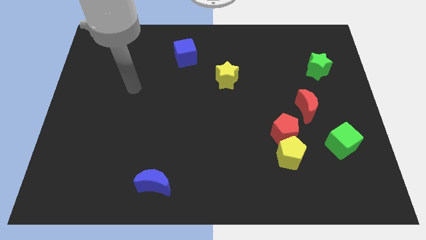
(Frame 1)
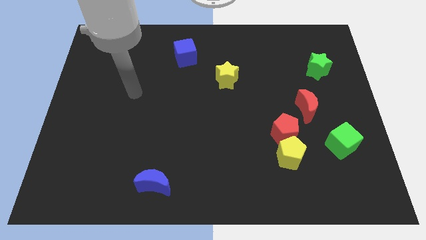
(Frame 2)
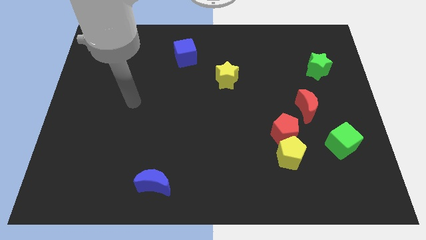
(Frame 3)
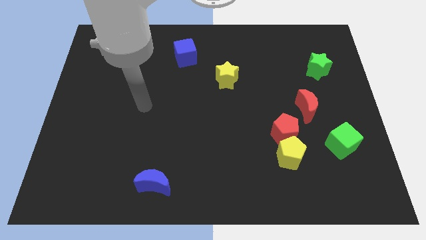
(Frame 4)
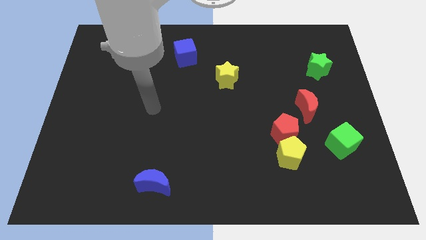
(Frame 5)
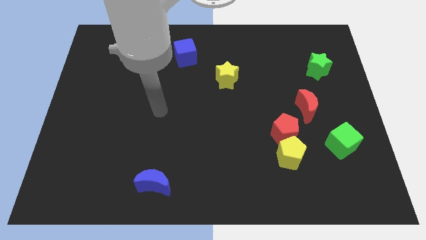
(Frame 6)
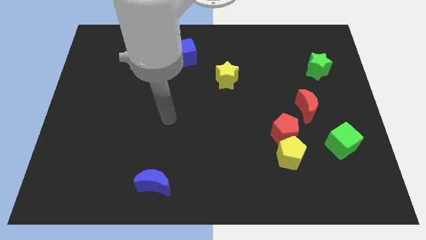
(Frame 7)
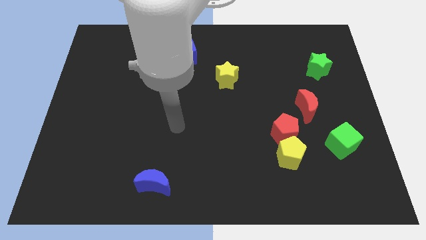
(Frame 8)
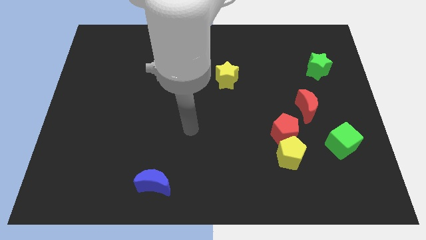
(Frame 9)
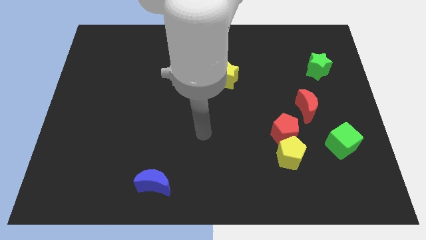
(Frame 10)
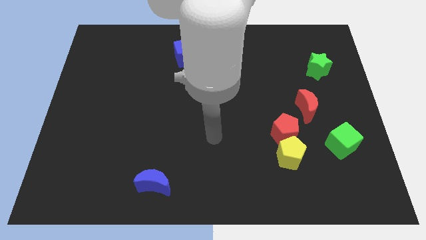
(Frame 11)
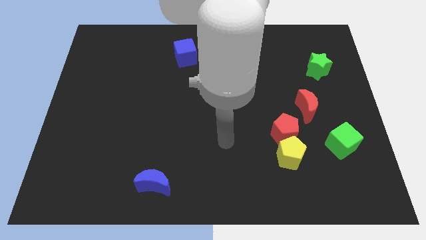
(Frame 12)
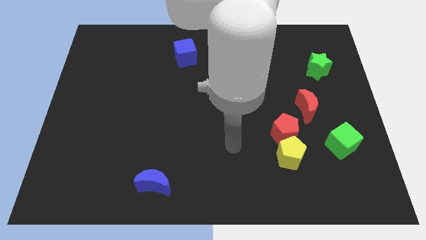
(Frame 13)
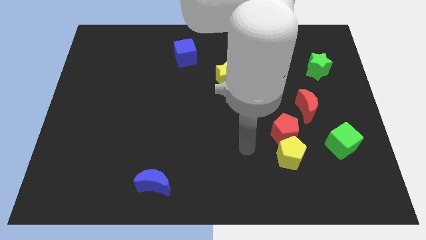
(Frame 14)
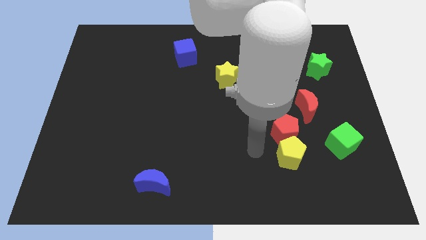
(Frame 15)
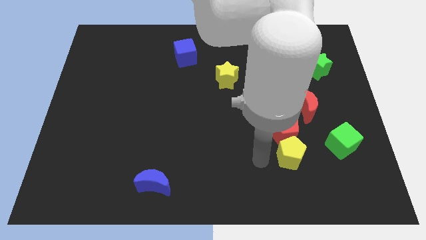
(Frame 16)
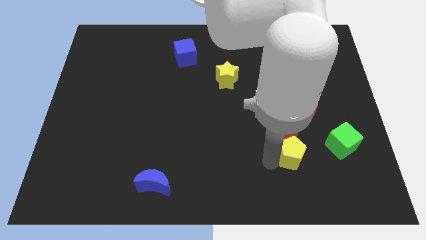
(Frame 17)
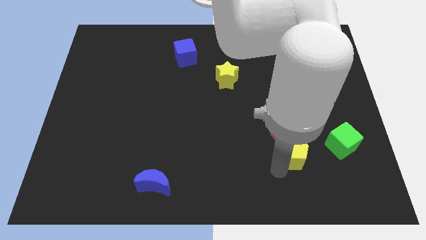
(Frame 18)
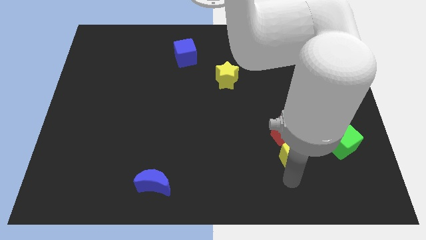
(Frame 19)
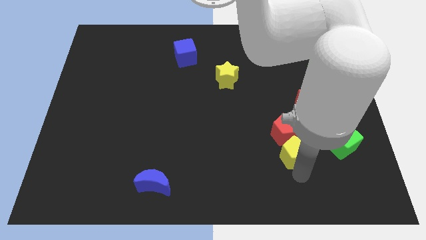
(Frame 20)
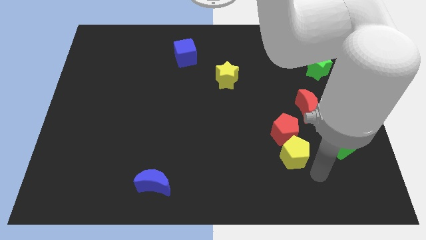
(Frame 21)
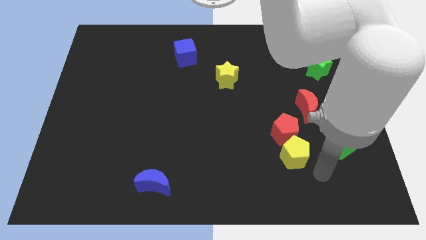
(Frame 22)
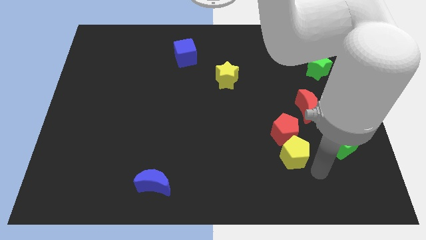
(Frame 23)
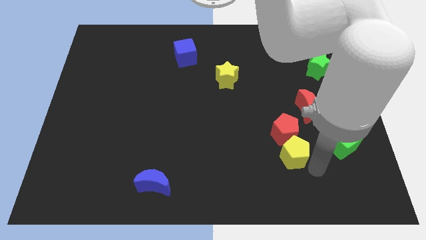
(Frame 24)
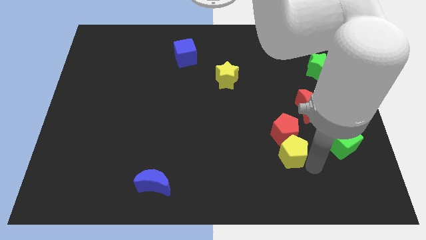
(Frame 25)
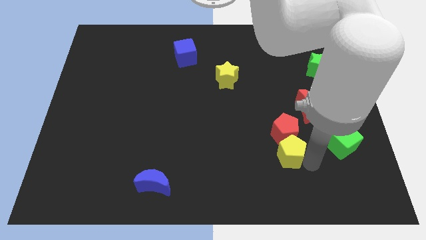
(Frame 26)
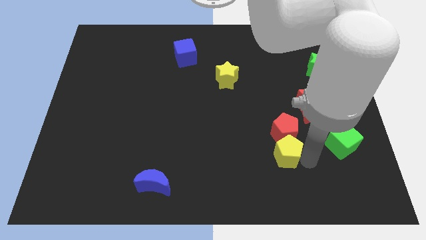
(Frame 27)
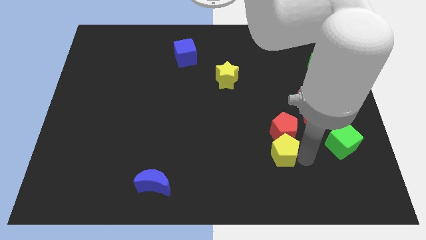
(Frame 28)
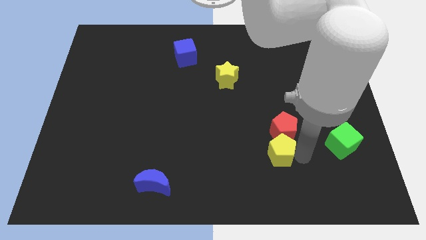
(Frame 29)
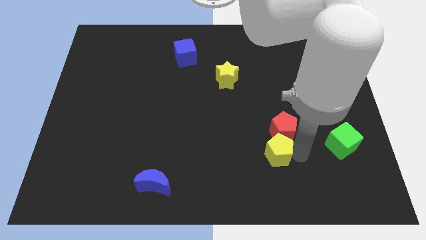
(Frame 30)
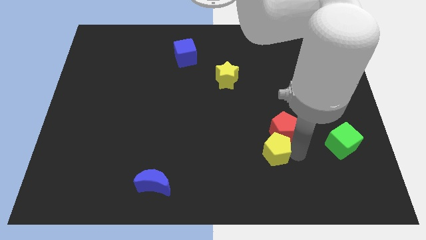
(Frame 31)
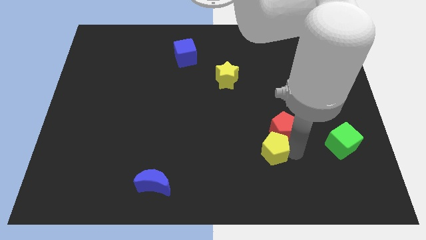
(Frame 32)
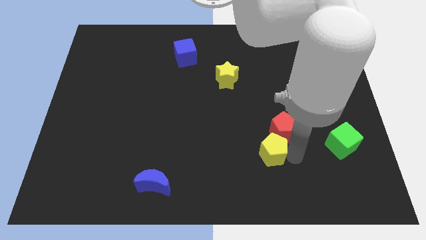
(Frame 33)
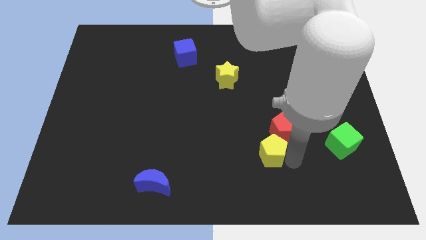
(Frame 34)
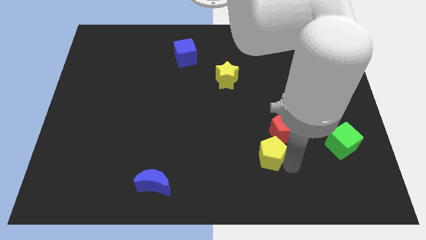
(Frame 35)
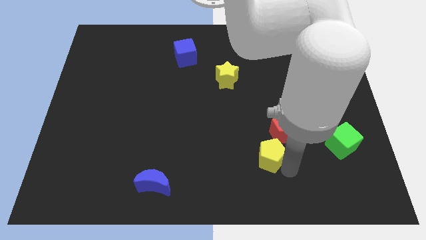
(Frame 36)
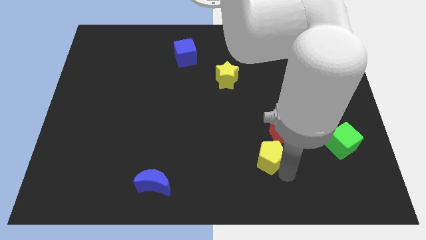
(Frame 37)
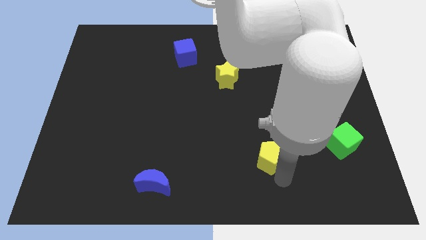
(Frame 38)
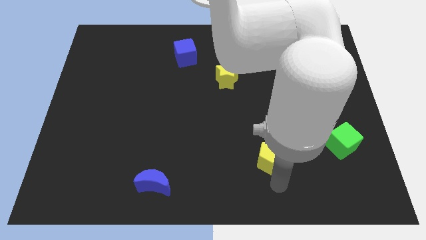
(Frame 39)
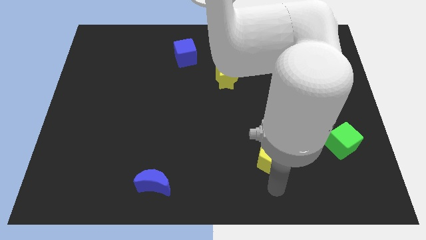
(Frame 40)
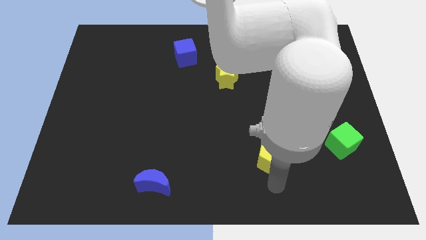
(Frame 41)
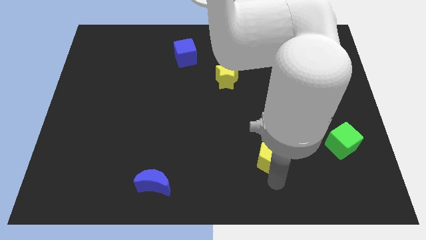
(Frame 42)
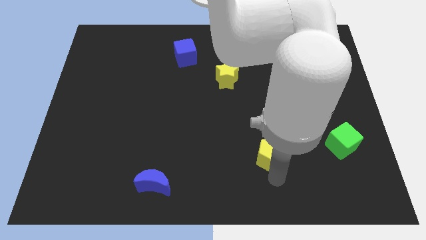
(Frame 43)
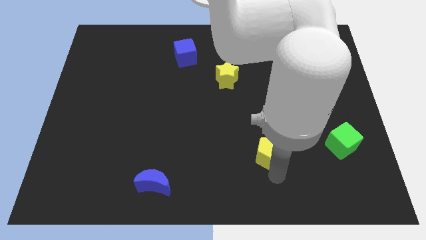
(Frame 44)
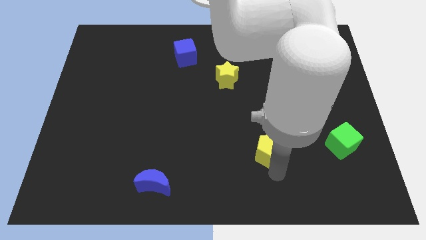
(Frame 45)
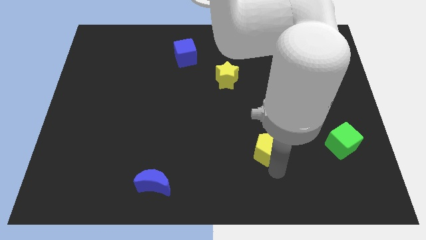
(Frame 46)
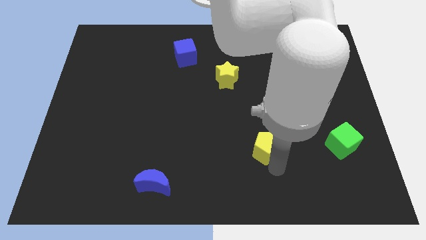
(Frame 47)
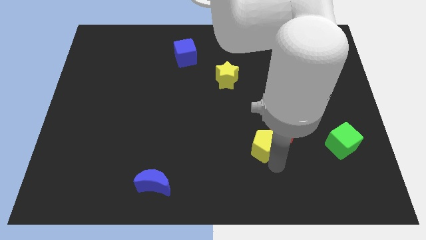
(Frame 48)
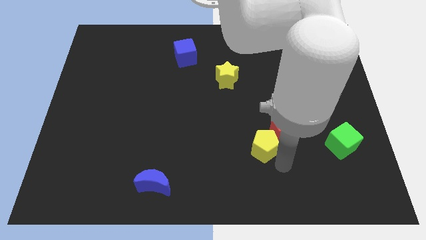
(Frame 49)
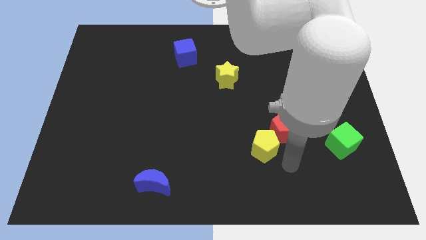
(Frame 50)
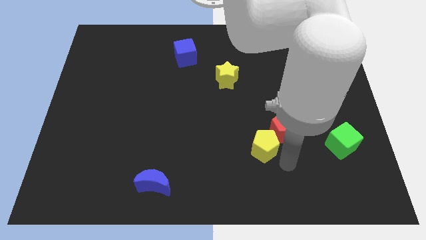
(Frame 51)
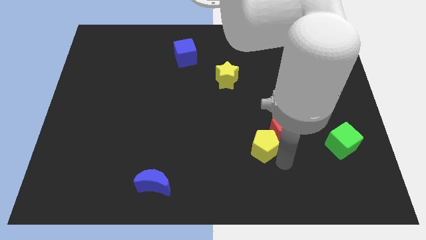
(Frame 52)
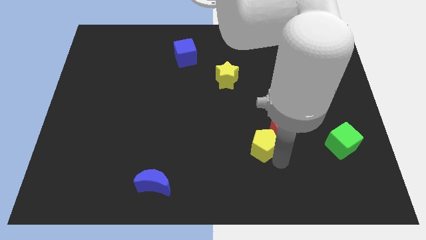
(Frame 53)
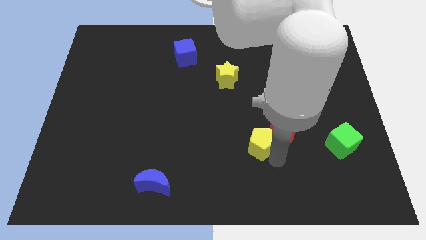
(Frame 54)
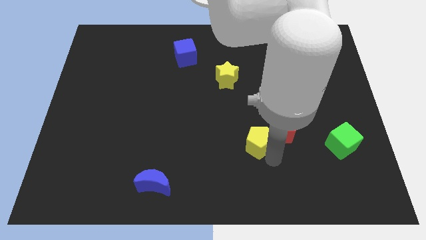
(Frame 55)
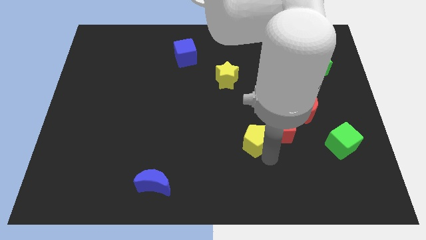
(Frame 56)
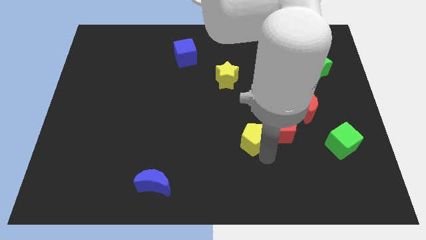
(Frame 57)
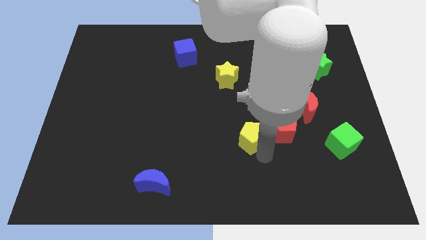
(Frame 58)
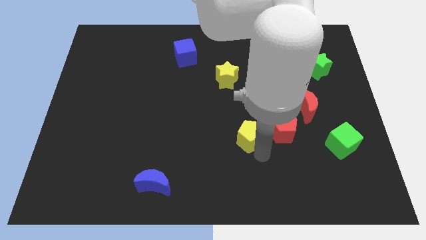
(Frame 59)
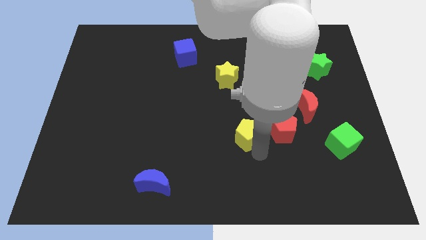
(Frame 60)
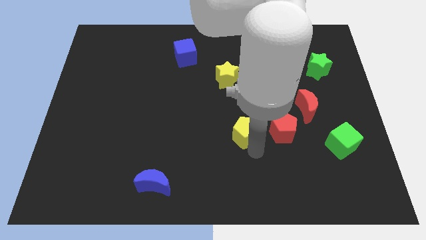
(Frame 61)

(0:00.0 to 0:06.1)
move the yellow pentagon to the middle of the board
